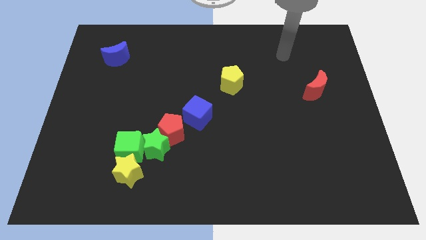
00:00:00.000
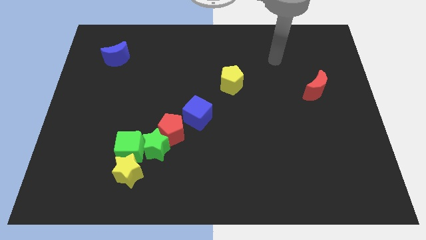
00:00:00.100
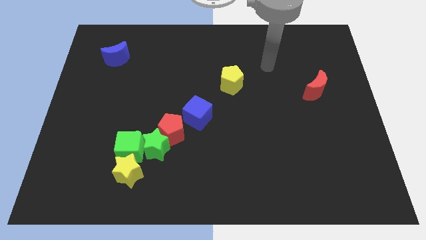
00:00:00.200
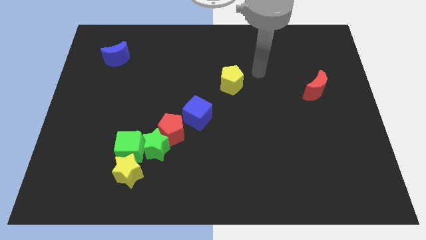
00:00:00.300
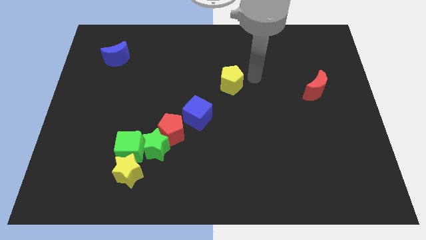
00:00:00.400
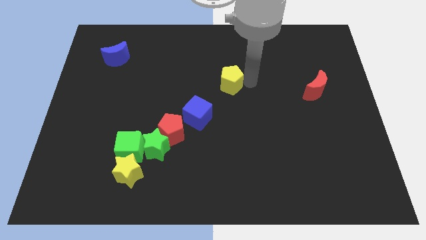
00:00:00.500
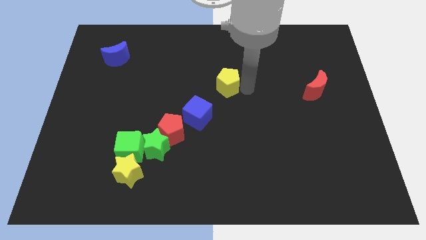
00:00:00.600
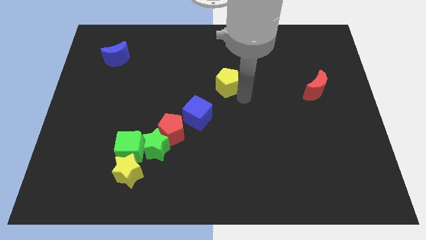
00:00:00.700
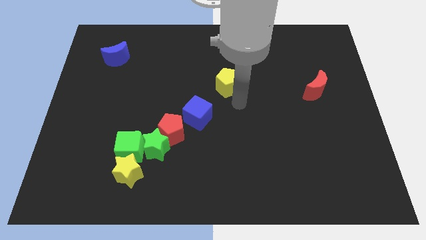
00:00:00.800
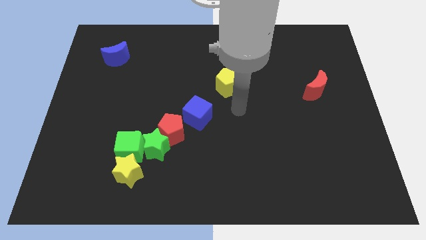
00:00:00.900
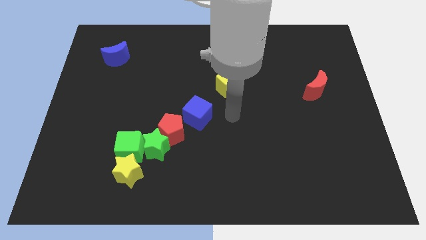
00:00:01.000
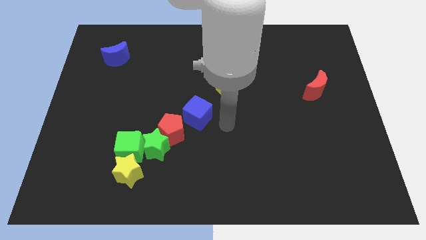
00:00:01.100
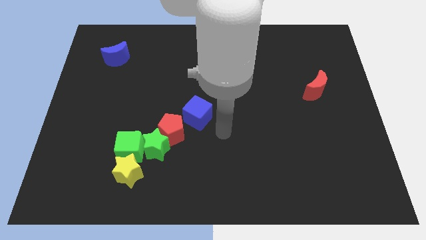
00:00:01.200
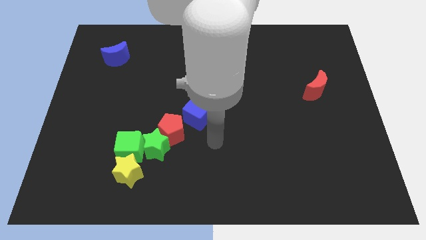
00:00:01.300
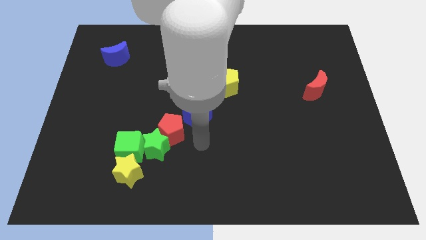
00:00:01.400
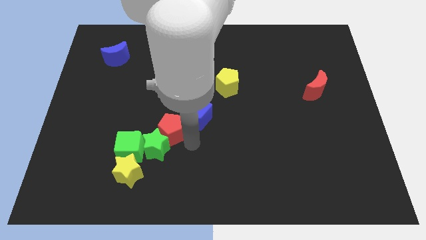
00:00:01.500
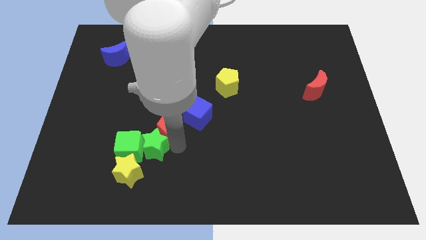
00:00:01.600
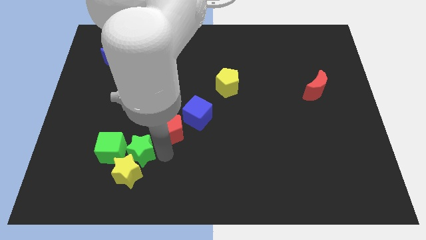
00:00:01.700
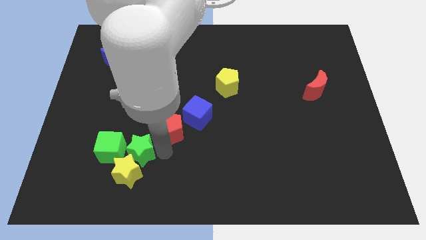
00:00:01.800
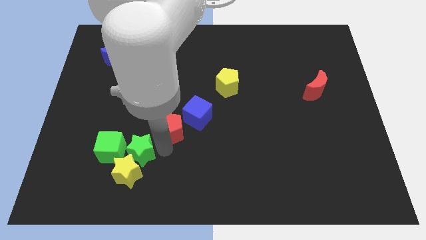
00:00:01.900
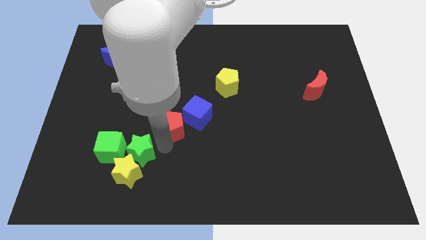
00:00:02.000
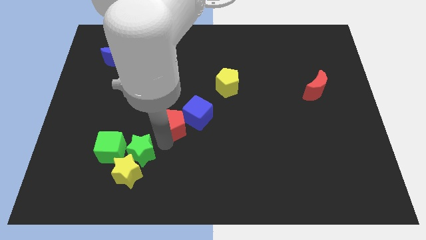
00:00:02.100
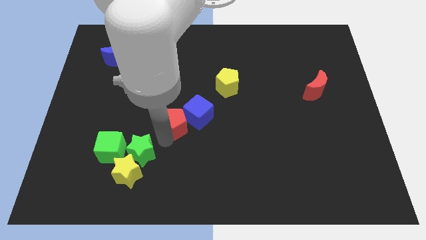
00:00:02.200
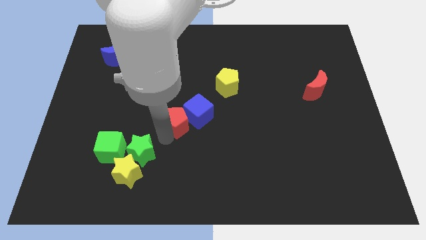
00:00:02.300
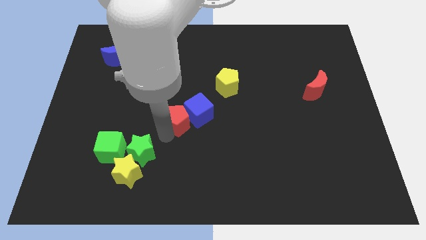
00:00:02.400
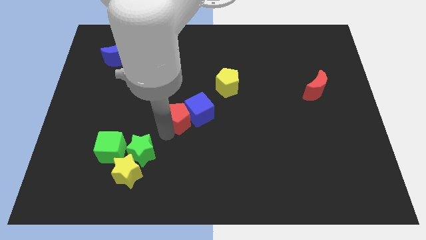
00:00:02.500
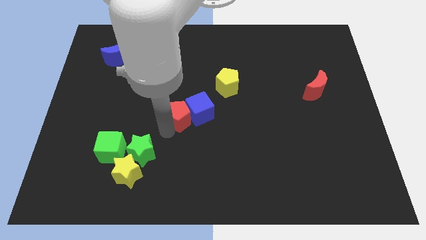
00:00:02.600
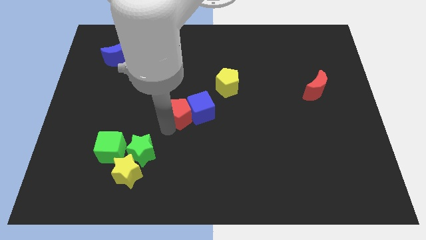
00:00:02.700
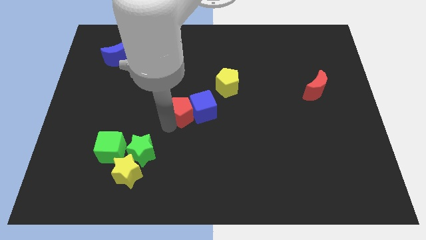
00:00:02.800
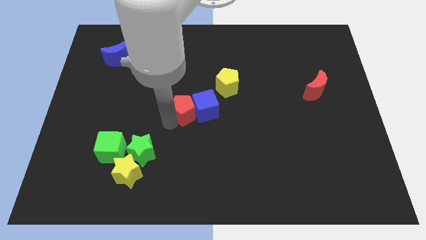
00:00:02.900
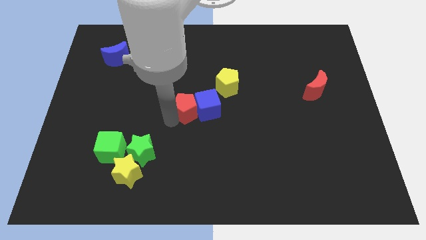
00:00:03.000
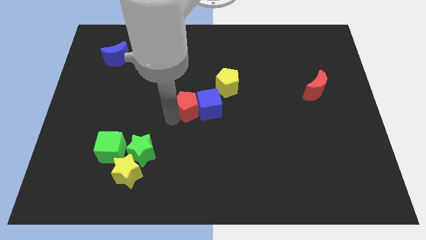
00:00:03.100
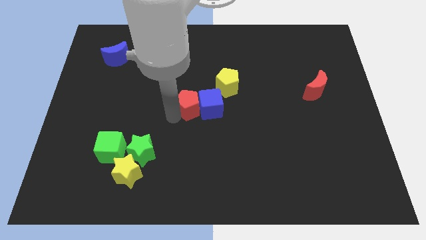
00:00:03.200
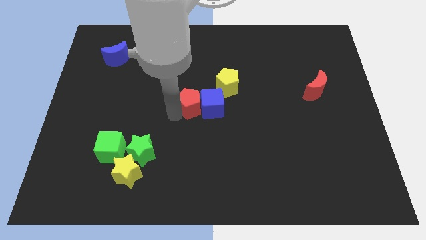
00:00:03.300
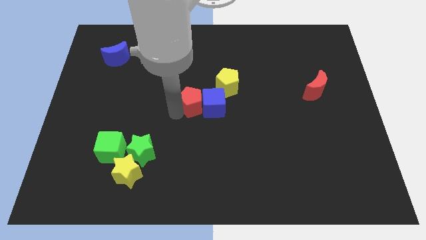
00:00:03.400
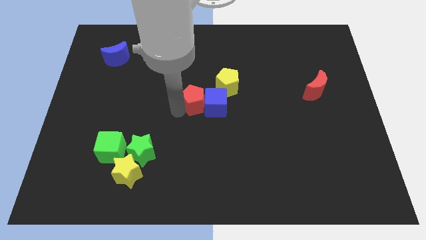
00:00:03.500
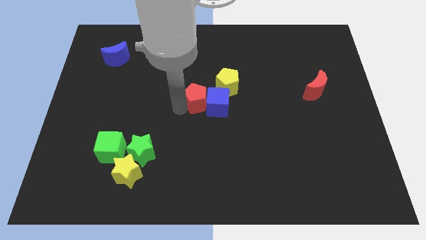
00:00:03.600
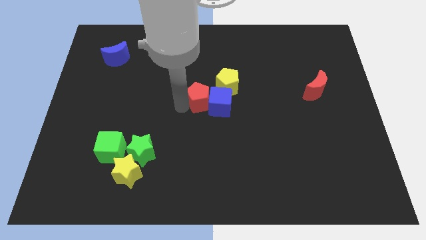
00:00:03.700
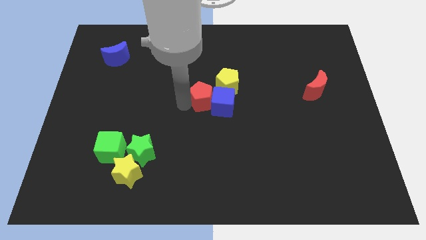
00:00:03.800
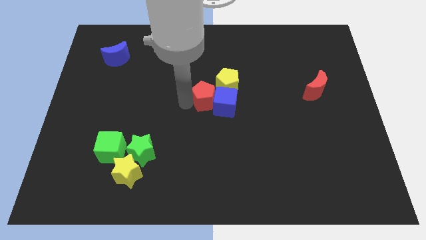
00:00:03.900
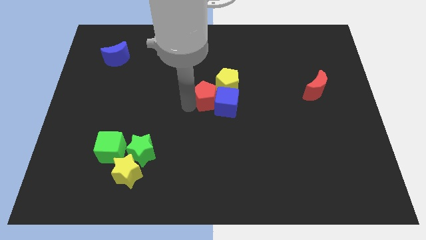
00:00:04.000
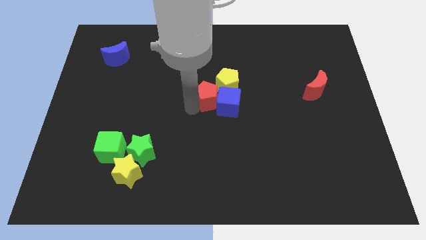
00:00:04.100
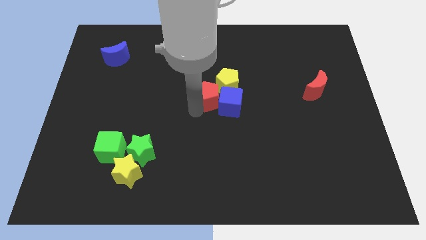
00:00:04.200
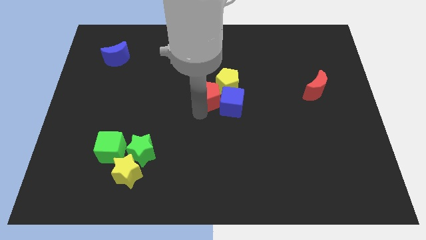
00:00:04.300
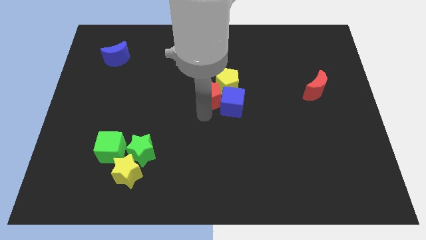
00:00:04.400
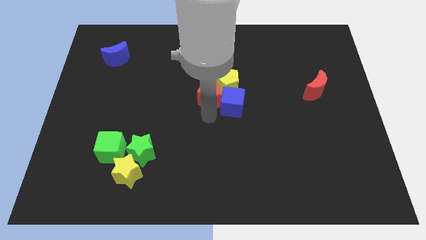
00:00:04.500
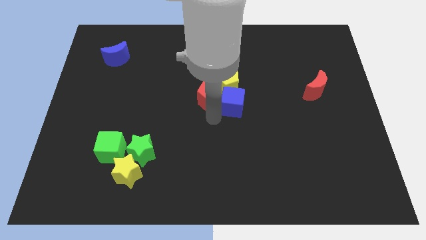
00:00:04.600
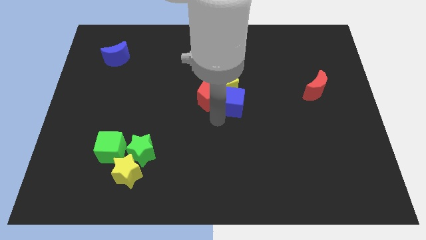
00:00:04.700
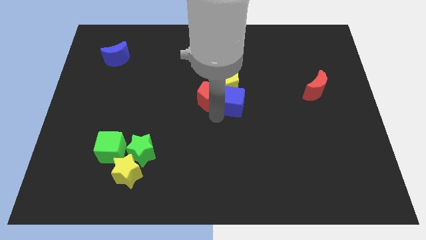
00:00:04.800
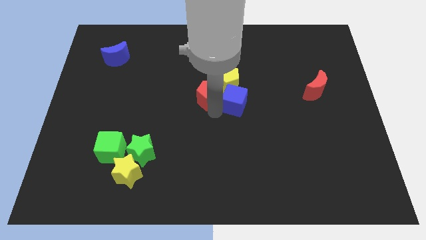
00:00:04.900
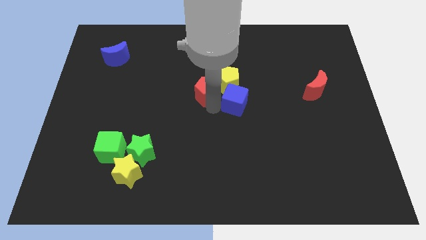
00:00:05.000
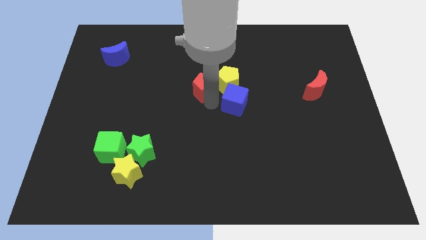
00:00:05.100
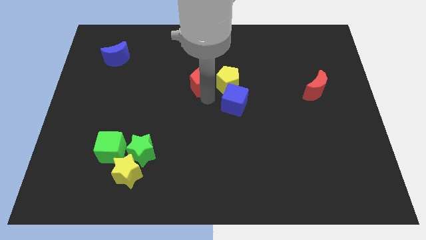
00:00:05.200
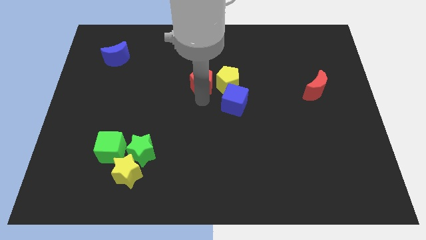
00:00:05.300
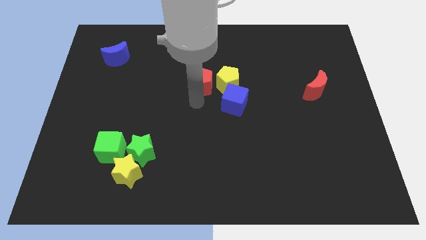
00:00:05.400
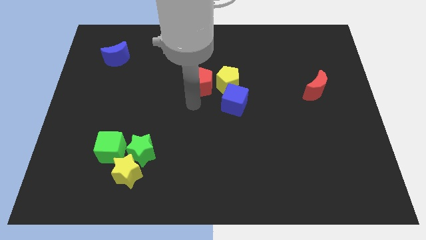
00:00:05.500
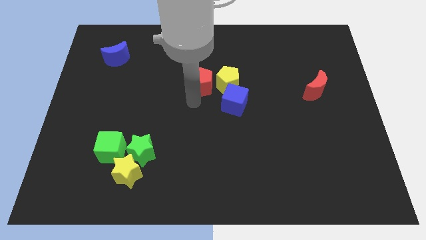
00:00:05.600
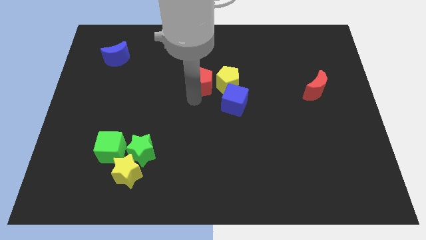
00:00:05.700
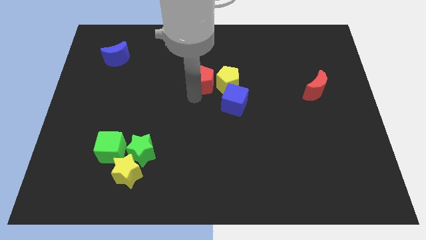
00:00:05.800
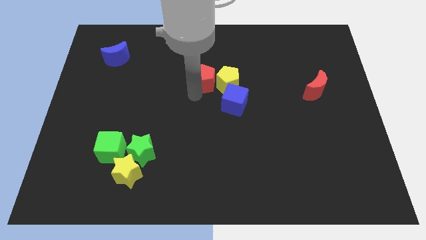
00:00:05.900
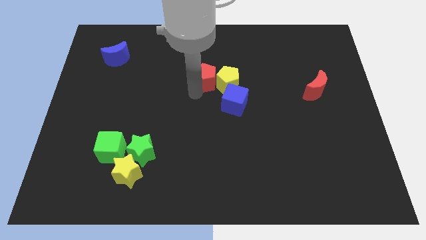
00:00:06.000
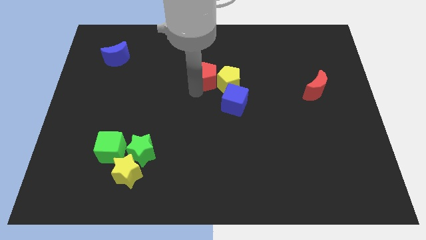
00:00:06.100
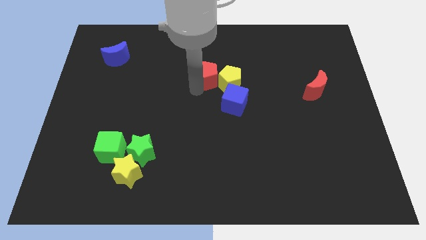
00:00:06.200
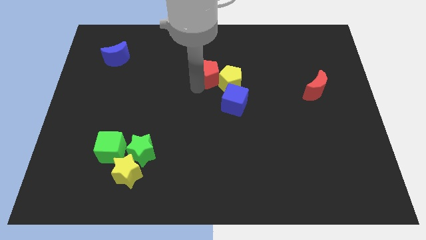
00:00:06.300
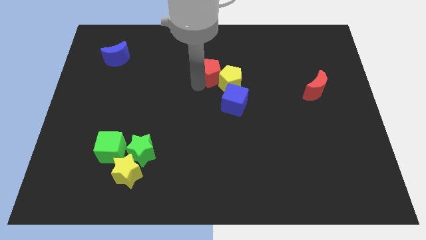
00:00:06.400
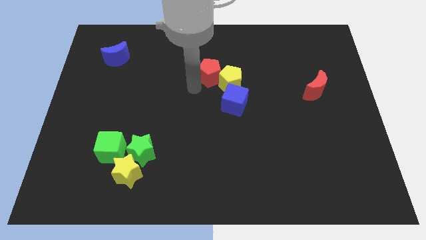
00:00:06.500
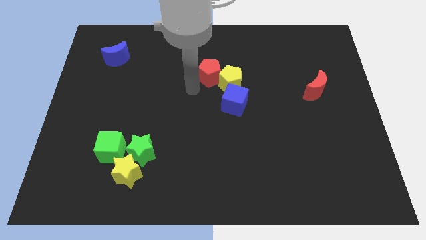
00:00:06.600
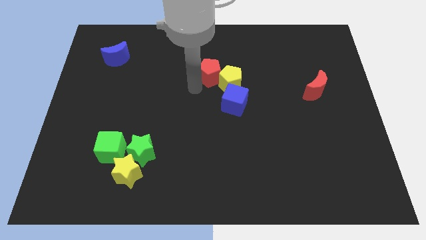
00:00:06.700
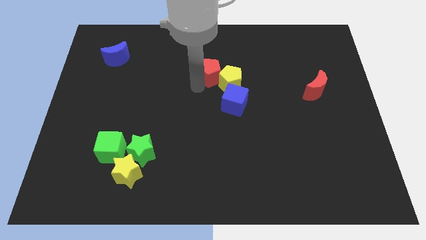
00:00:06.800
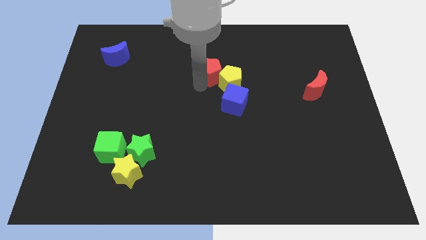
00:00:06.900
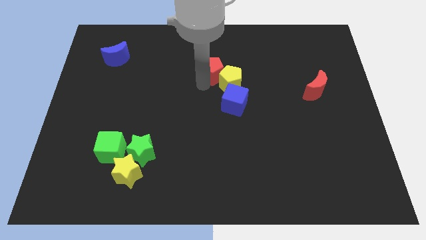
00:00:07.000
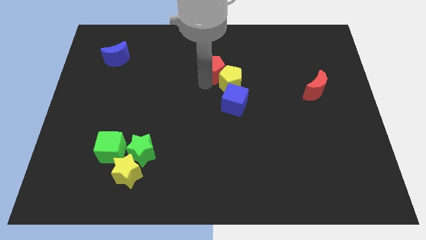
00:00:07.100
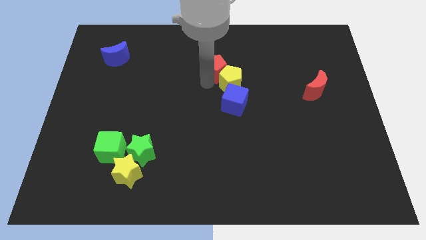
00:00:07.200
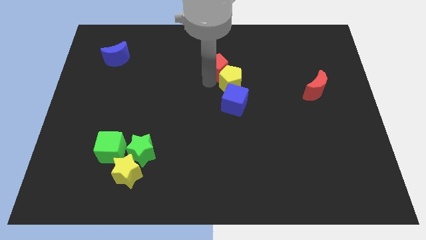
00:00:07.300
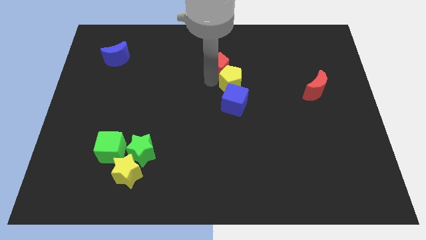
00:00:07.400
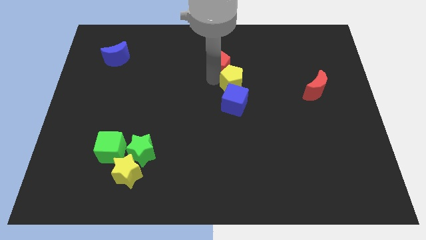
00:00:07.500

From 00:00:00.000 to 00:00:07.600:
slide the red pentagon diagonally upwards and right

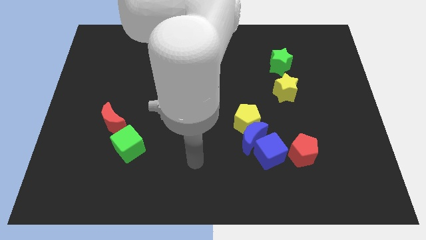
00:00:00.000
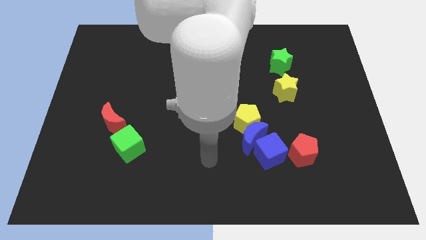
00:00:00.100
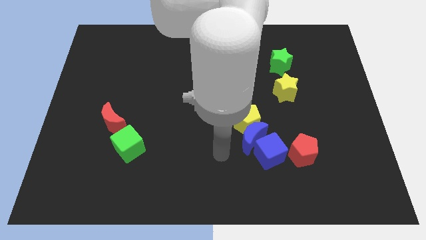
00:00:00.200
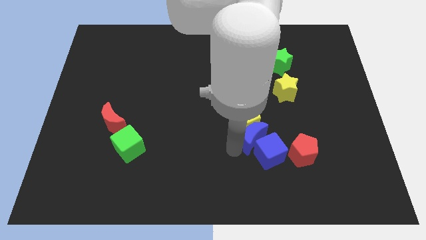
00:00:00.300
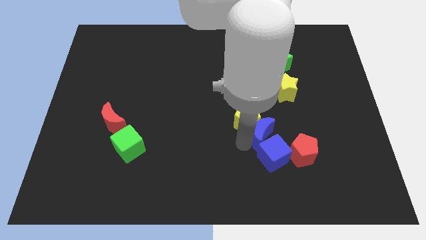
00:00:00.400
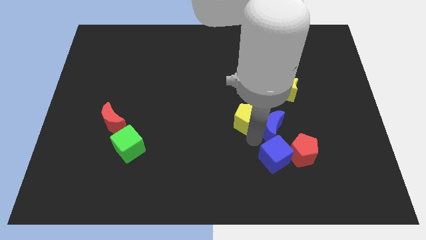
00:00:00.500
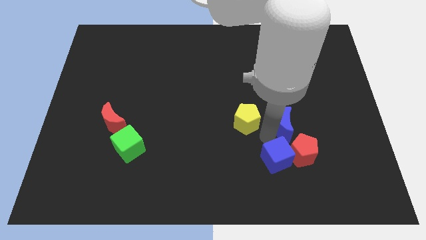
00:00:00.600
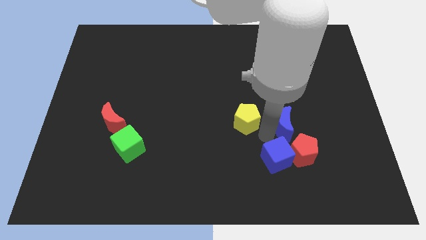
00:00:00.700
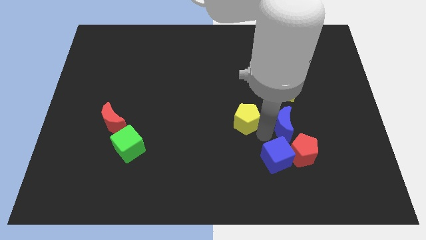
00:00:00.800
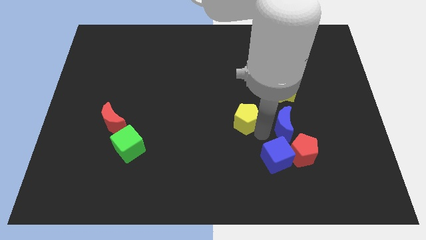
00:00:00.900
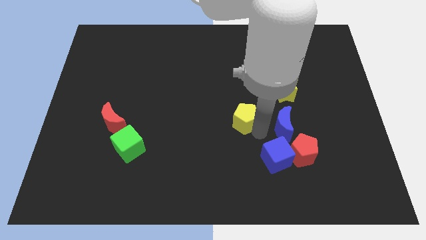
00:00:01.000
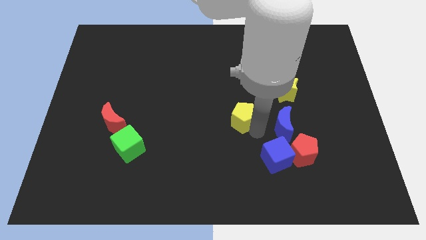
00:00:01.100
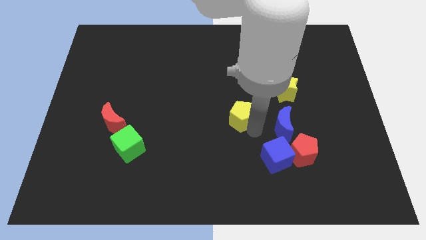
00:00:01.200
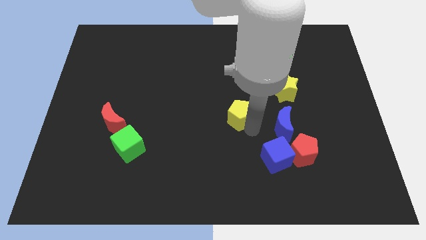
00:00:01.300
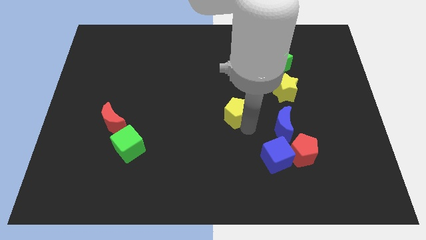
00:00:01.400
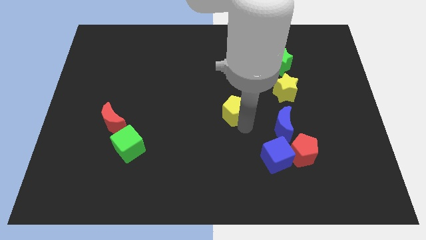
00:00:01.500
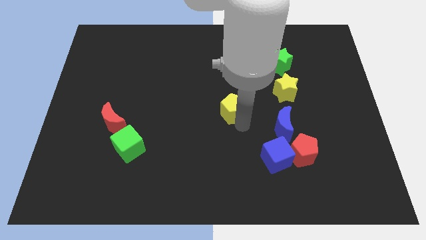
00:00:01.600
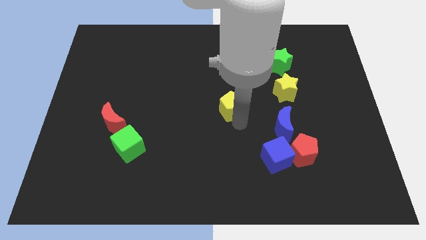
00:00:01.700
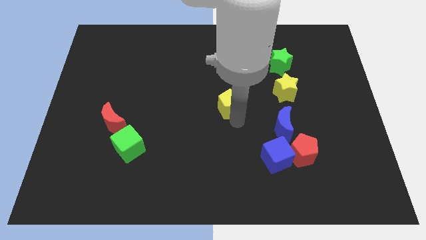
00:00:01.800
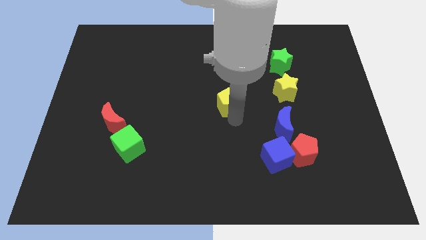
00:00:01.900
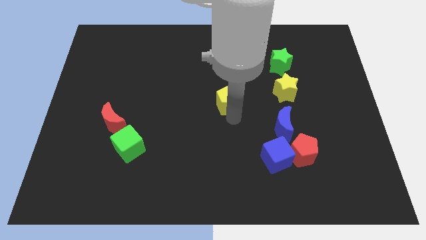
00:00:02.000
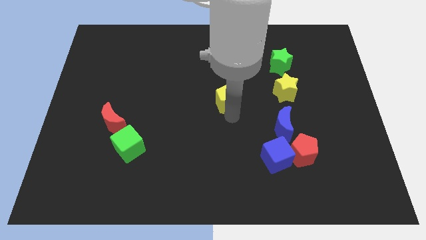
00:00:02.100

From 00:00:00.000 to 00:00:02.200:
slightly slide the yellow pentagon upwards and left
